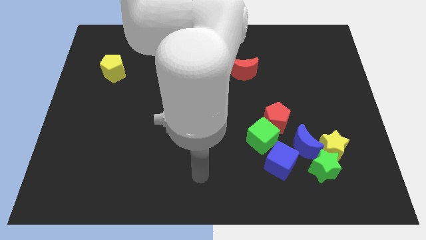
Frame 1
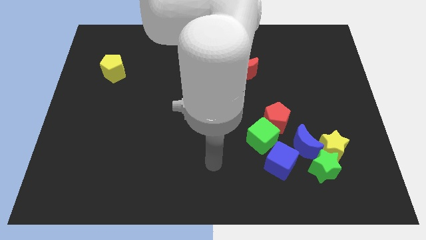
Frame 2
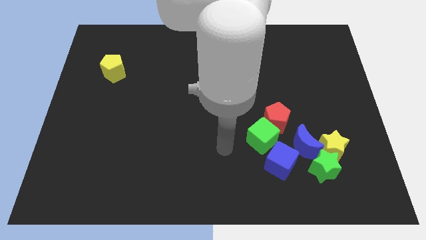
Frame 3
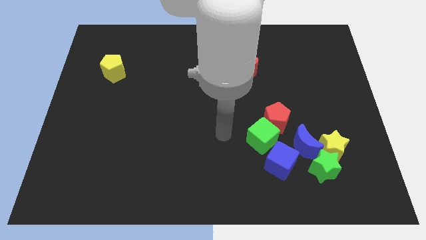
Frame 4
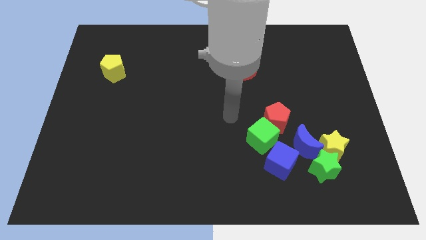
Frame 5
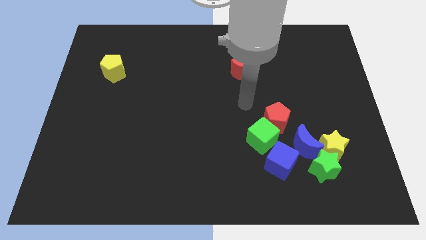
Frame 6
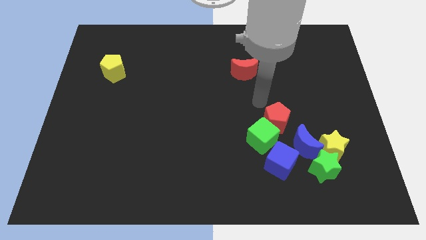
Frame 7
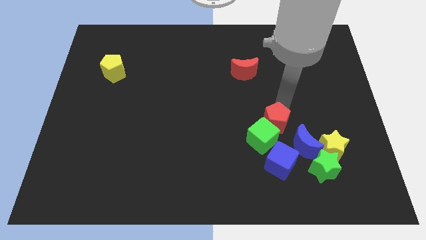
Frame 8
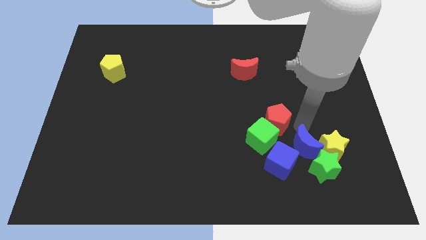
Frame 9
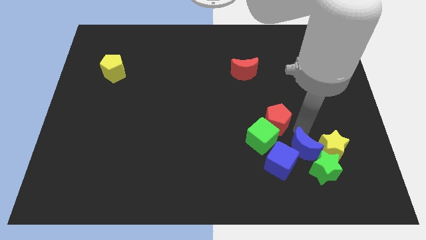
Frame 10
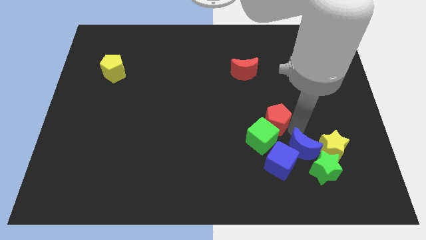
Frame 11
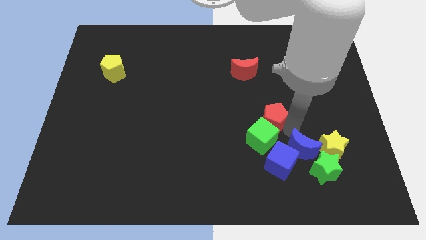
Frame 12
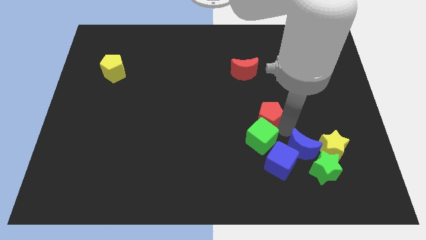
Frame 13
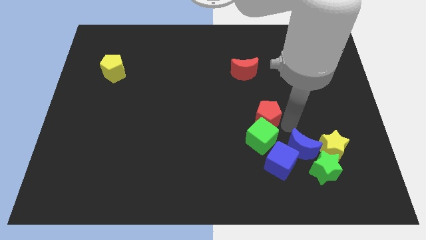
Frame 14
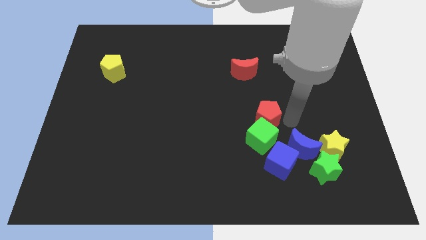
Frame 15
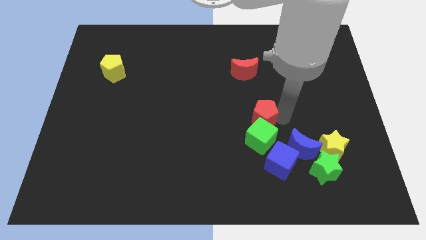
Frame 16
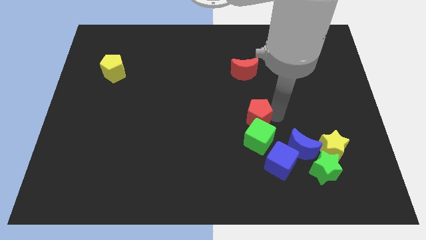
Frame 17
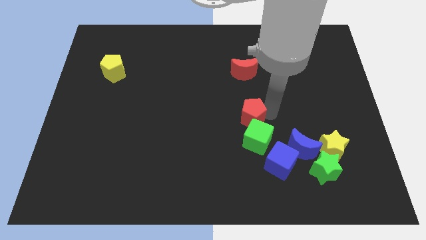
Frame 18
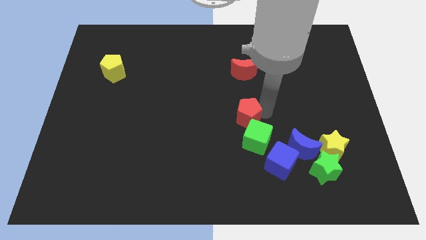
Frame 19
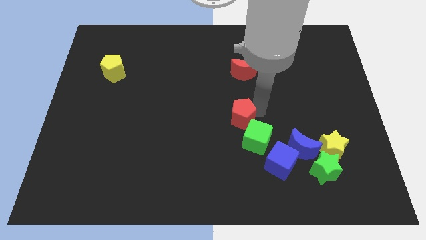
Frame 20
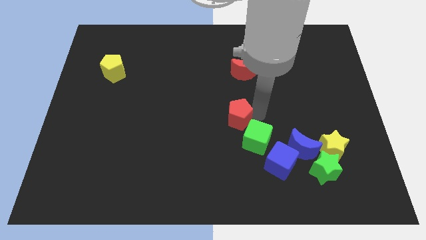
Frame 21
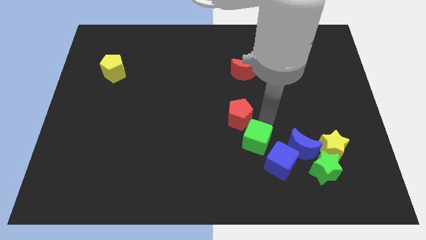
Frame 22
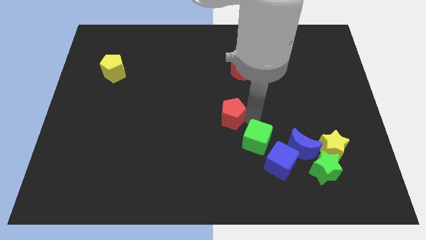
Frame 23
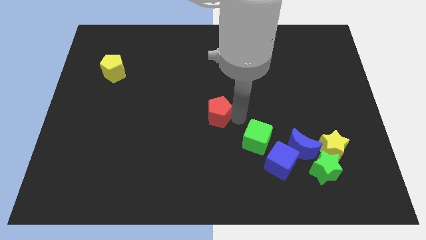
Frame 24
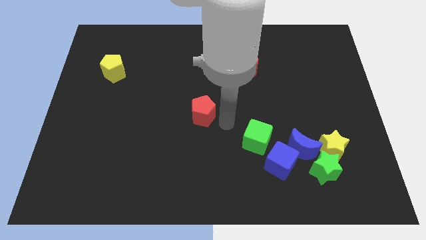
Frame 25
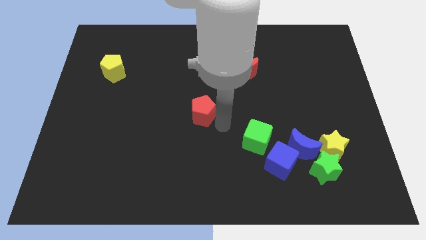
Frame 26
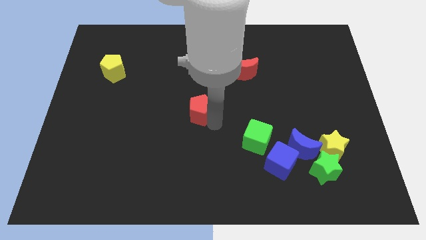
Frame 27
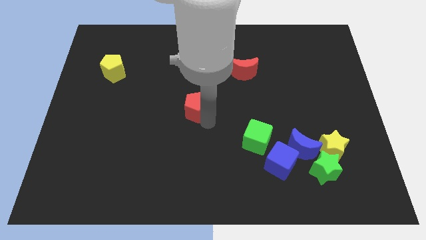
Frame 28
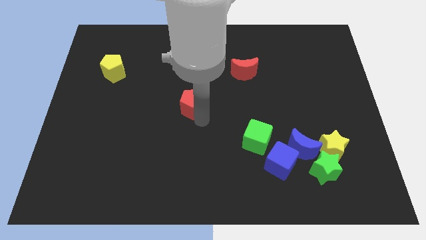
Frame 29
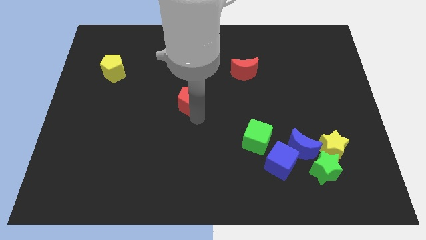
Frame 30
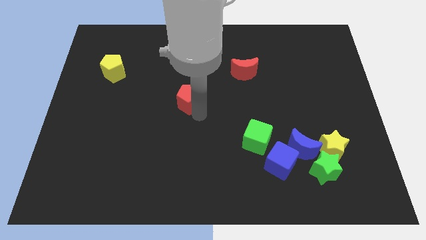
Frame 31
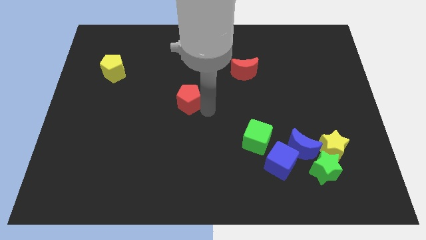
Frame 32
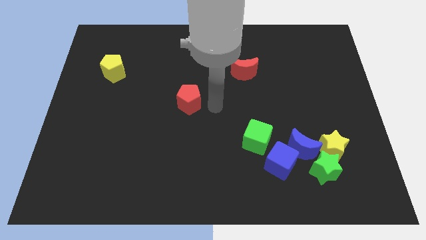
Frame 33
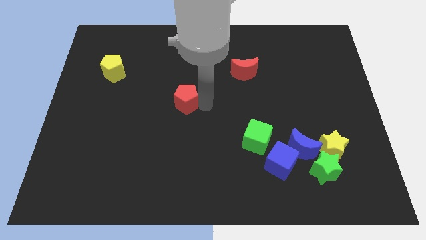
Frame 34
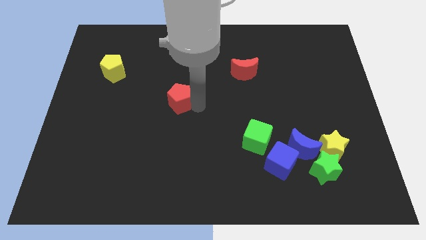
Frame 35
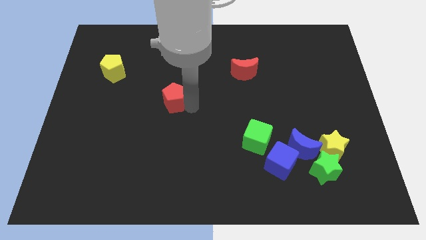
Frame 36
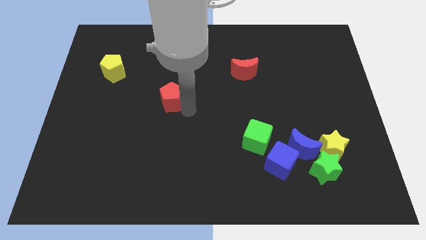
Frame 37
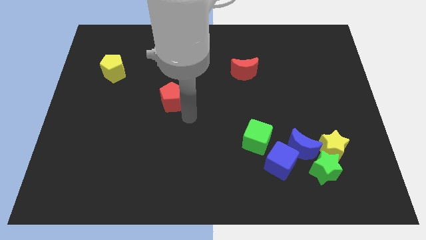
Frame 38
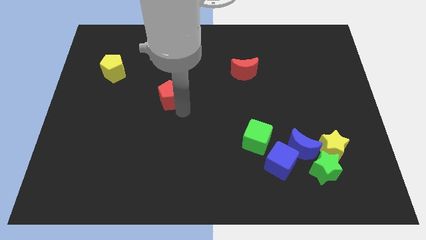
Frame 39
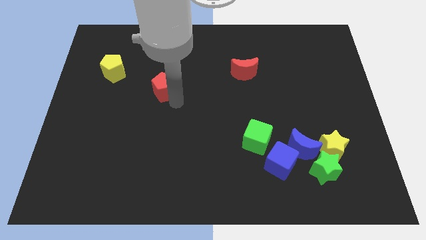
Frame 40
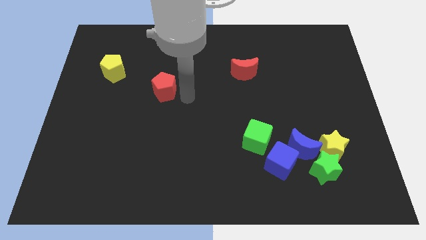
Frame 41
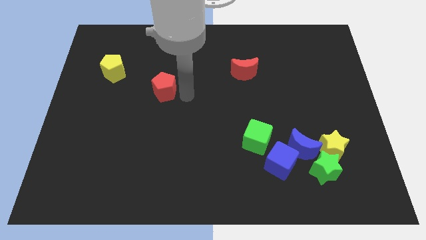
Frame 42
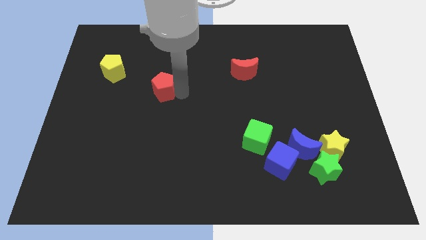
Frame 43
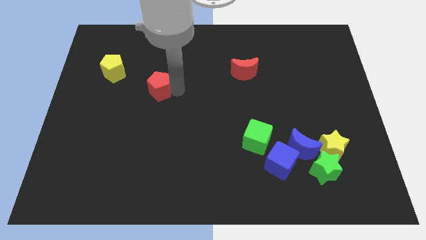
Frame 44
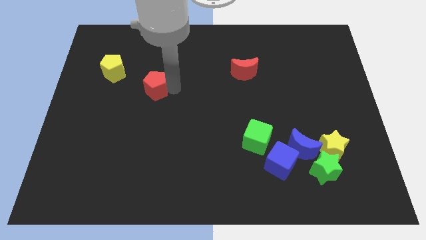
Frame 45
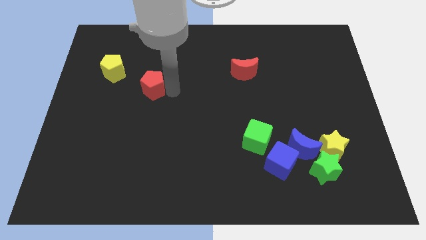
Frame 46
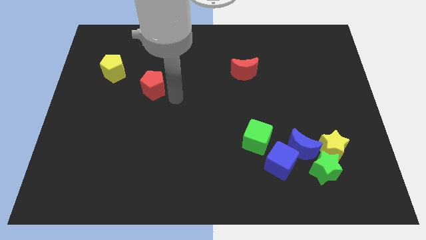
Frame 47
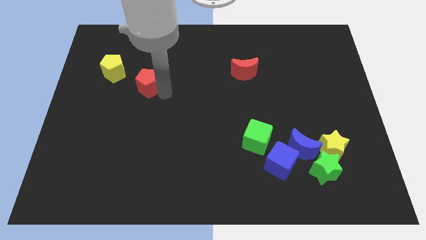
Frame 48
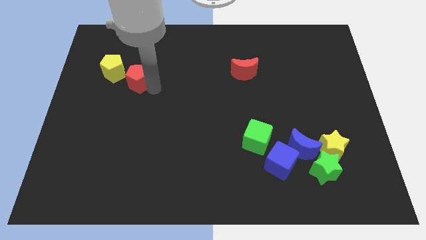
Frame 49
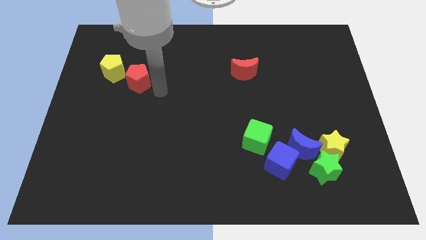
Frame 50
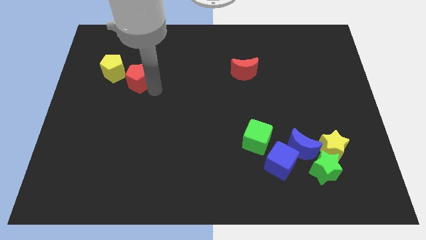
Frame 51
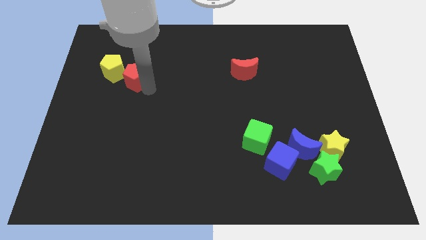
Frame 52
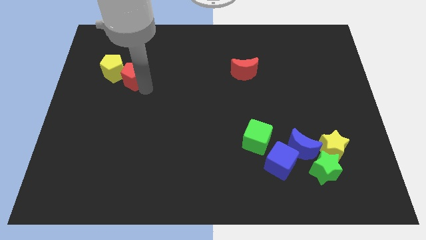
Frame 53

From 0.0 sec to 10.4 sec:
push the red pentagon towards the yellow pentagon

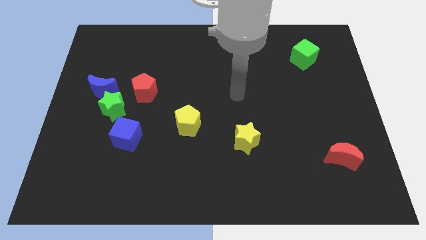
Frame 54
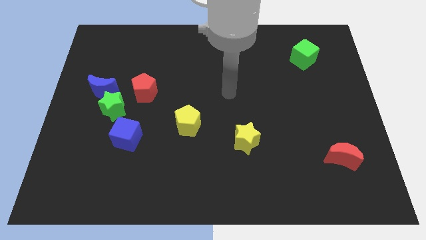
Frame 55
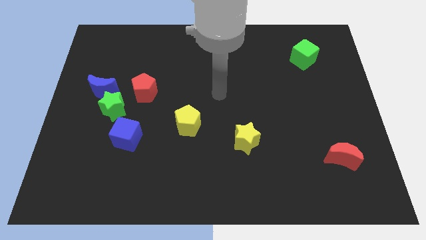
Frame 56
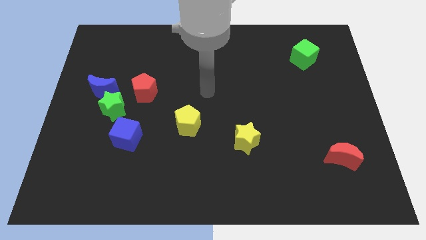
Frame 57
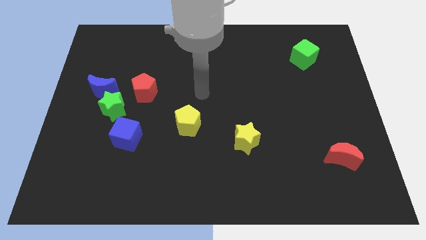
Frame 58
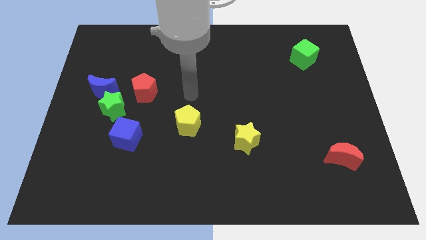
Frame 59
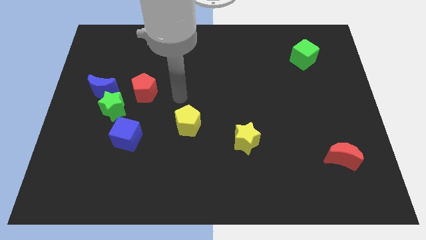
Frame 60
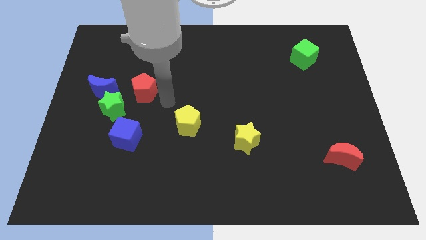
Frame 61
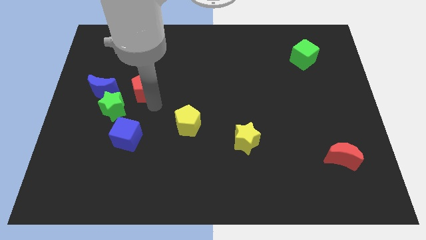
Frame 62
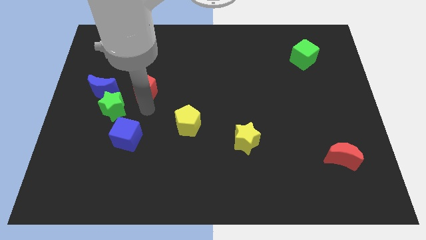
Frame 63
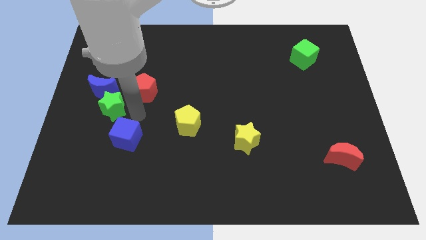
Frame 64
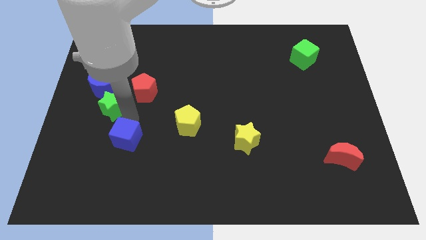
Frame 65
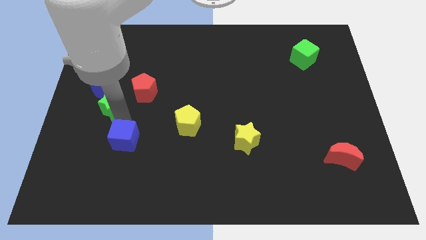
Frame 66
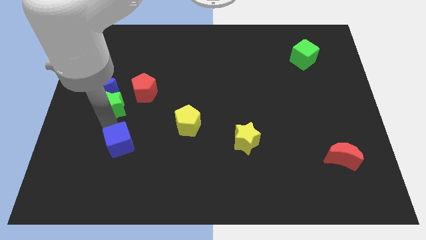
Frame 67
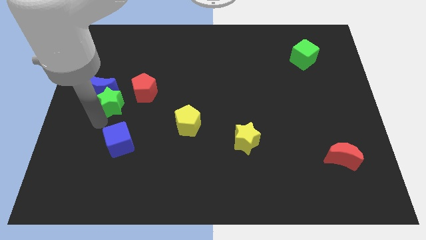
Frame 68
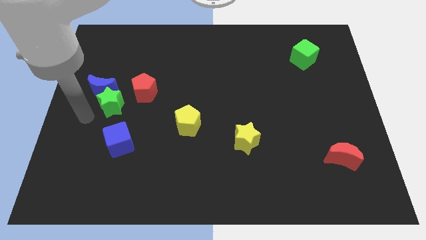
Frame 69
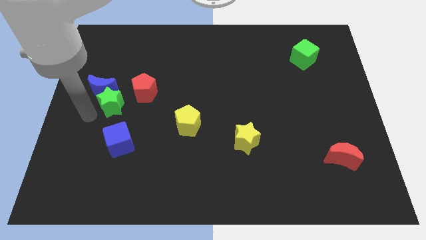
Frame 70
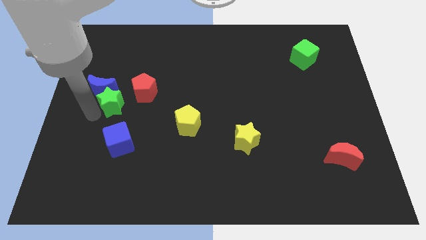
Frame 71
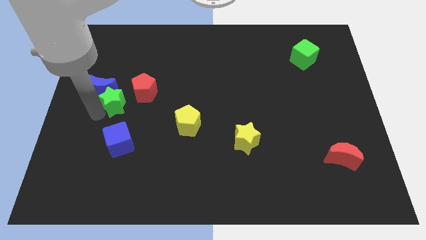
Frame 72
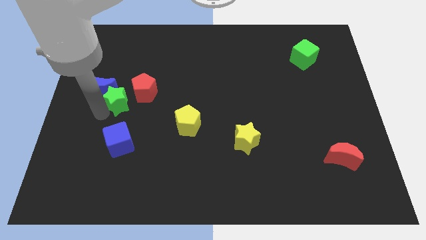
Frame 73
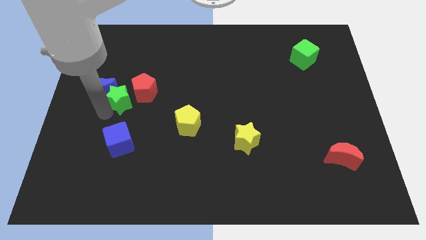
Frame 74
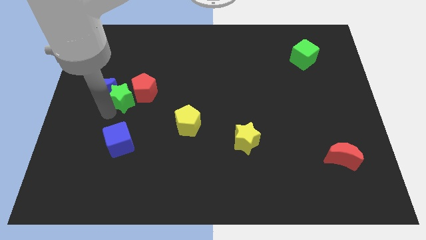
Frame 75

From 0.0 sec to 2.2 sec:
slide the green star towards the red pentagon
